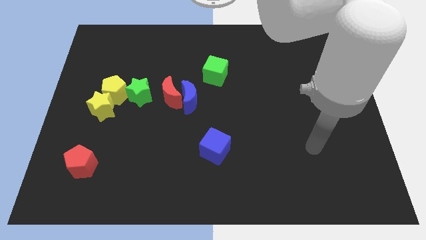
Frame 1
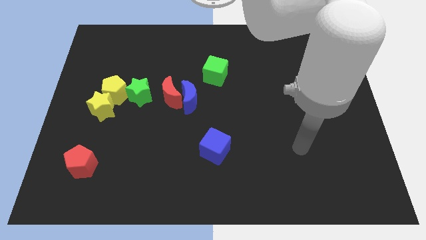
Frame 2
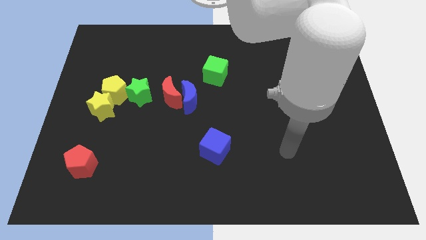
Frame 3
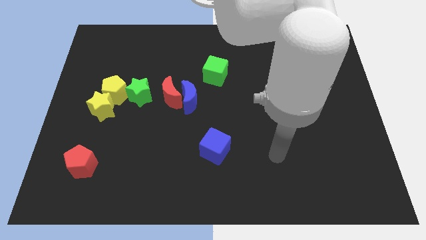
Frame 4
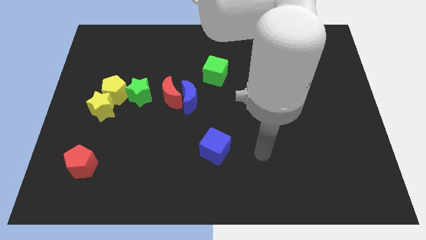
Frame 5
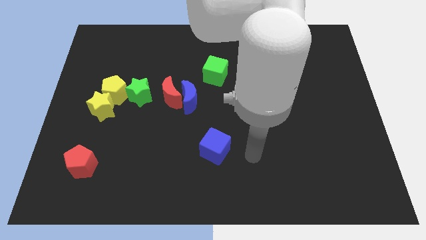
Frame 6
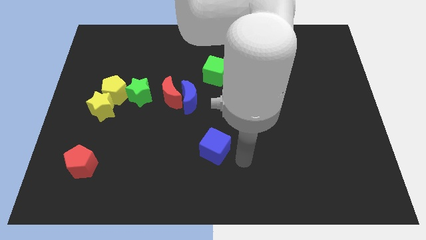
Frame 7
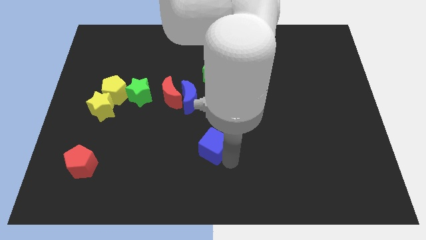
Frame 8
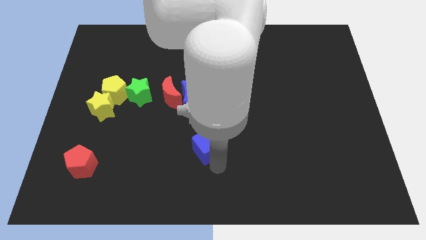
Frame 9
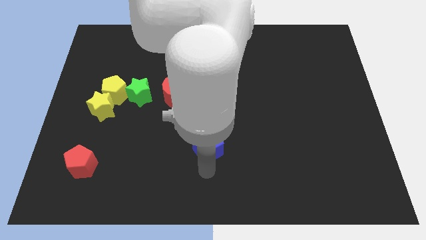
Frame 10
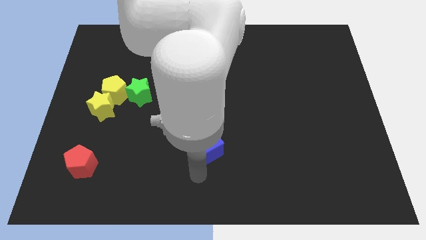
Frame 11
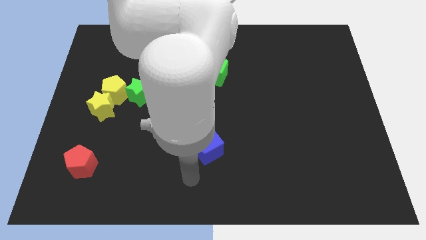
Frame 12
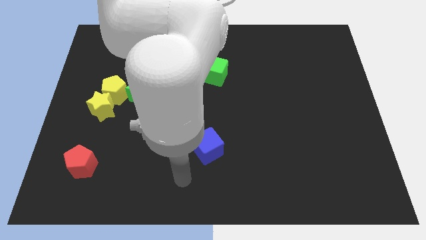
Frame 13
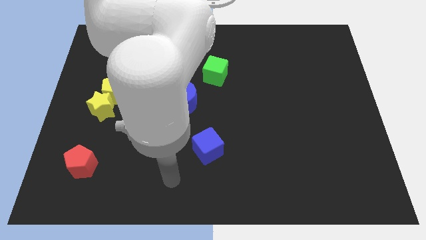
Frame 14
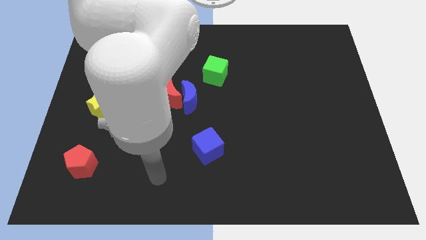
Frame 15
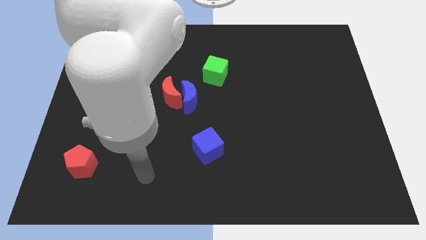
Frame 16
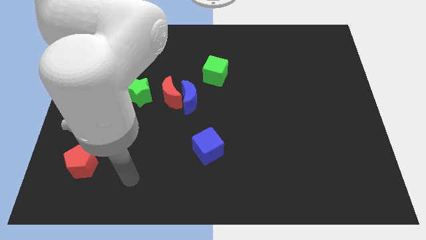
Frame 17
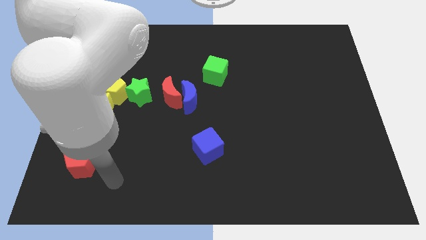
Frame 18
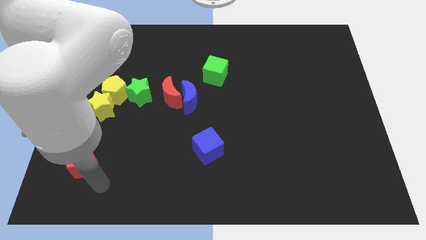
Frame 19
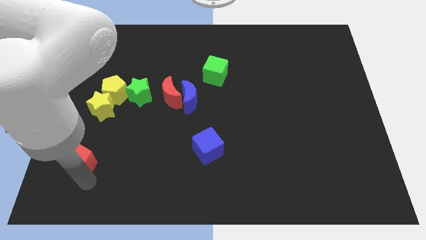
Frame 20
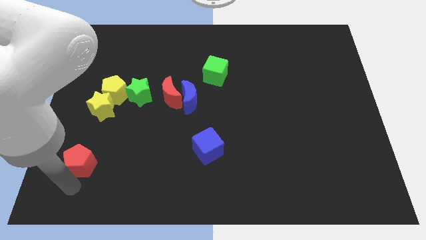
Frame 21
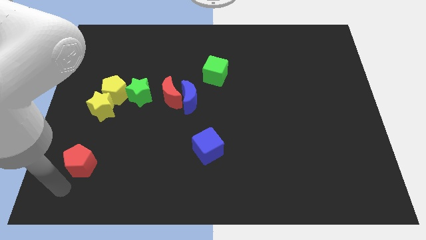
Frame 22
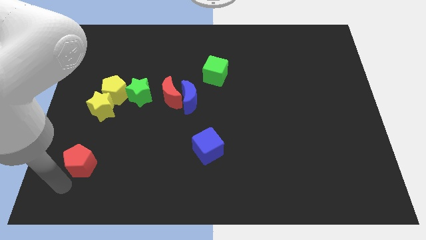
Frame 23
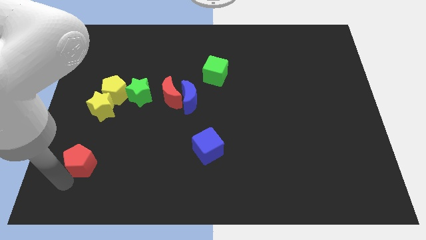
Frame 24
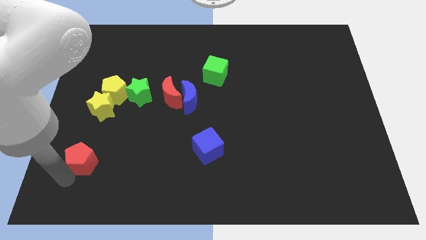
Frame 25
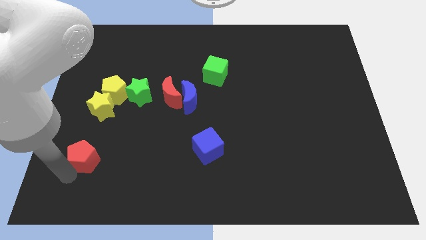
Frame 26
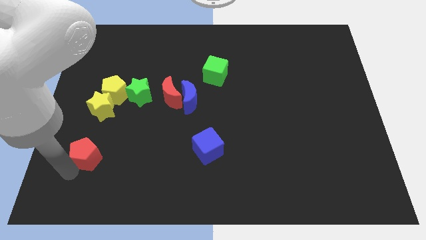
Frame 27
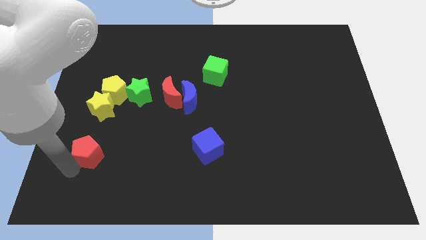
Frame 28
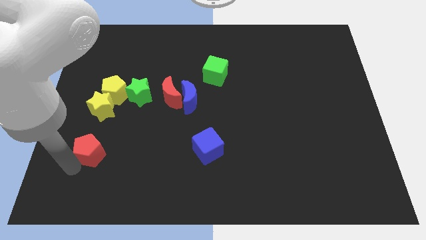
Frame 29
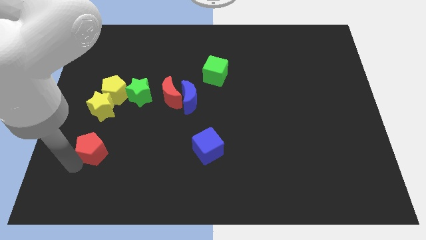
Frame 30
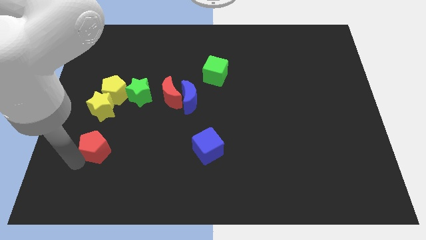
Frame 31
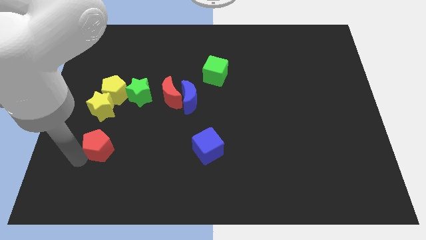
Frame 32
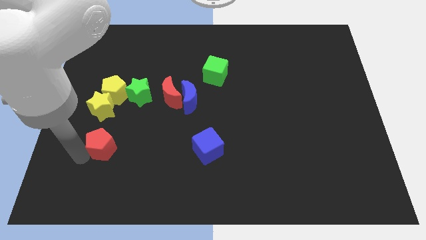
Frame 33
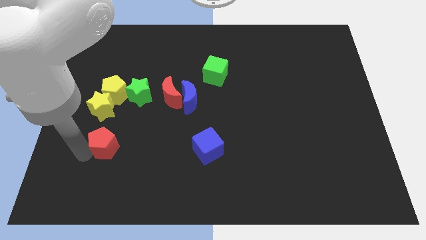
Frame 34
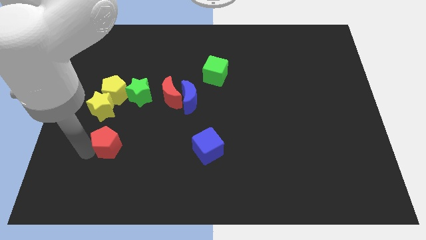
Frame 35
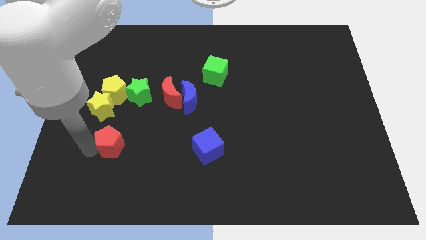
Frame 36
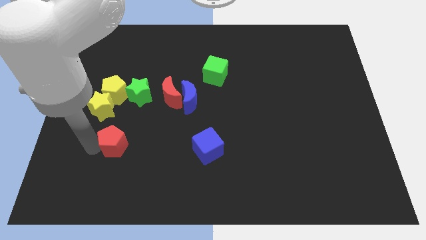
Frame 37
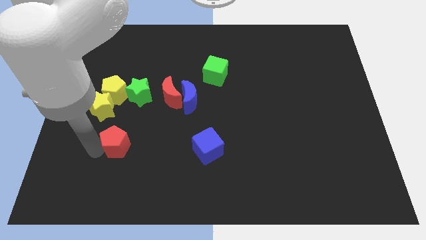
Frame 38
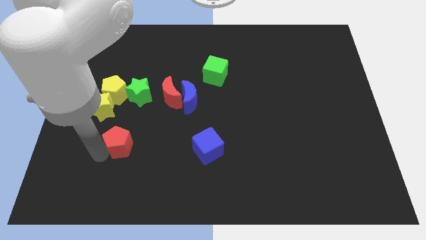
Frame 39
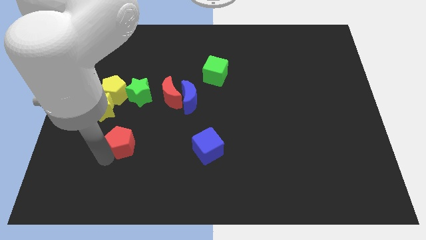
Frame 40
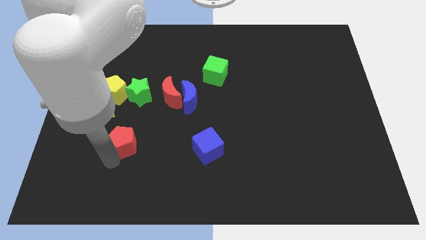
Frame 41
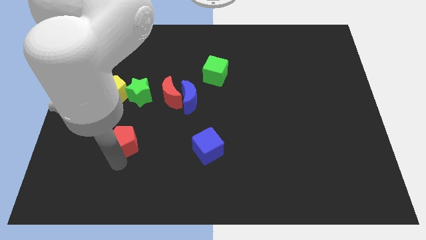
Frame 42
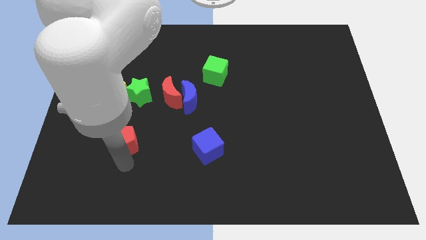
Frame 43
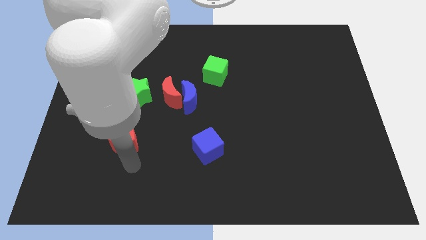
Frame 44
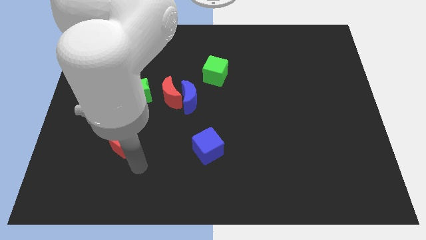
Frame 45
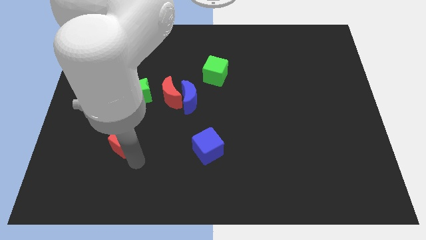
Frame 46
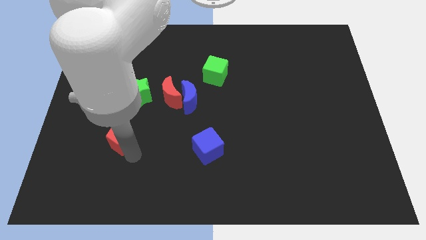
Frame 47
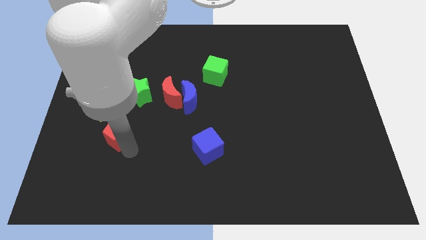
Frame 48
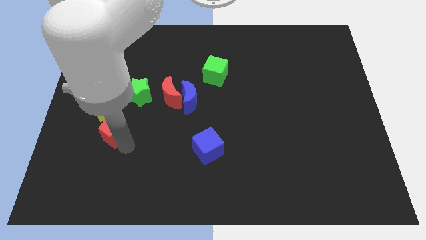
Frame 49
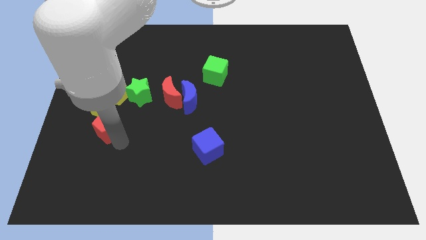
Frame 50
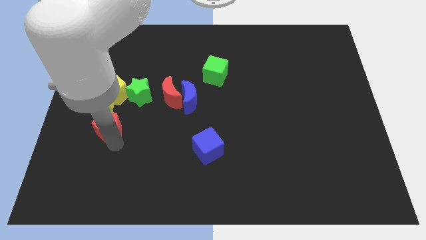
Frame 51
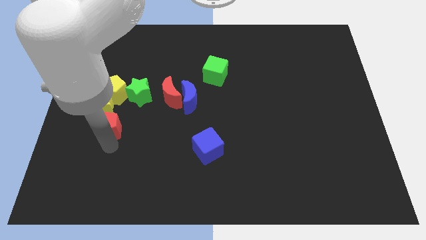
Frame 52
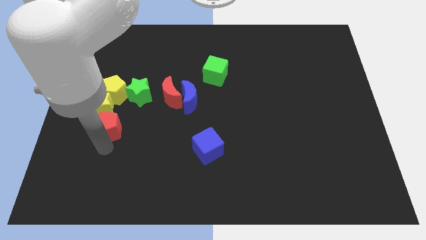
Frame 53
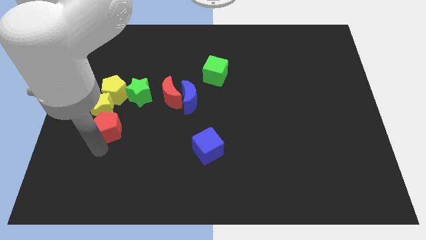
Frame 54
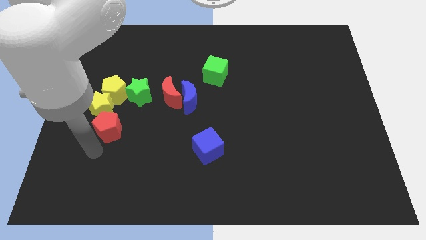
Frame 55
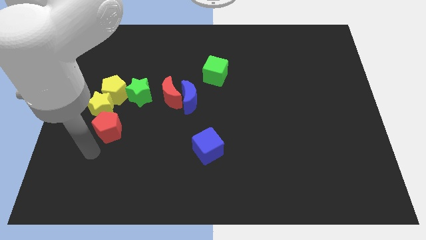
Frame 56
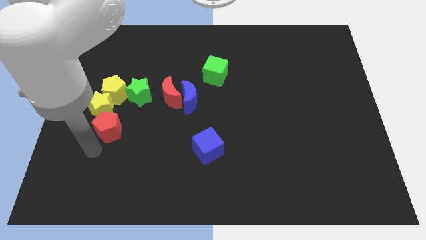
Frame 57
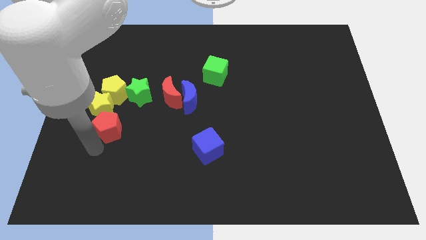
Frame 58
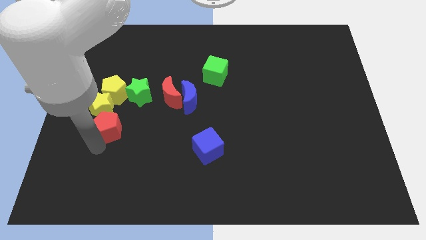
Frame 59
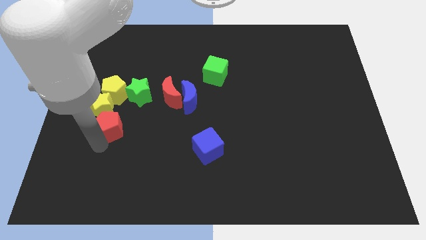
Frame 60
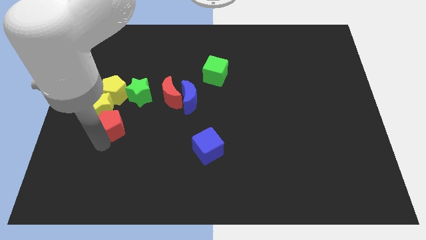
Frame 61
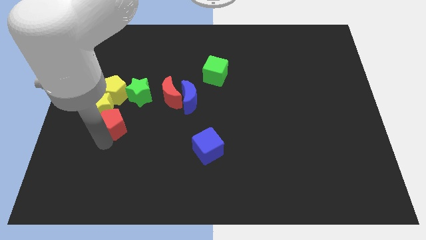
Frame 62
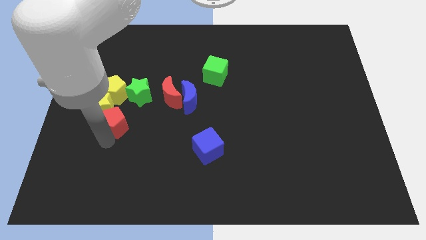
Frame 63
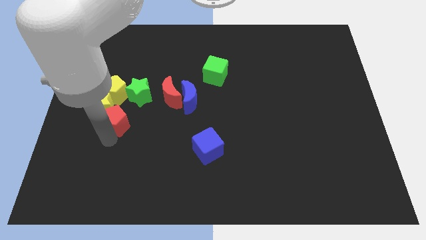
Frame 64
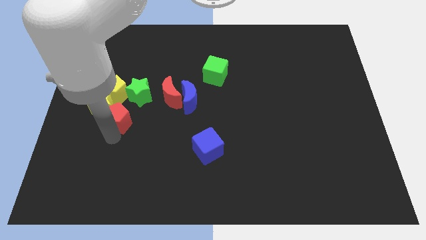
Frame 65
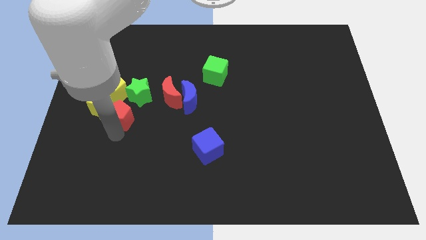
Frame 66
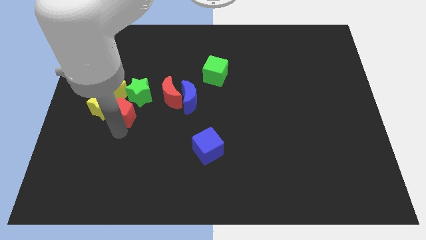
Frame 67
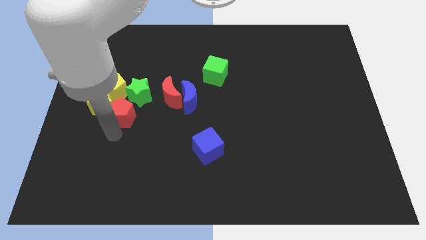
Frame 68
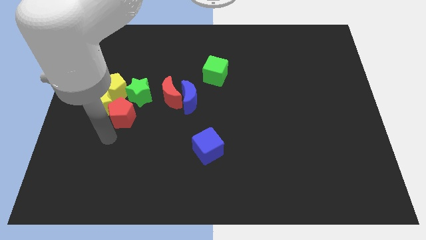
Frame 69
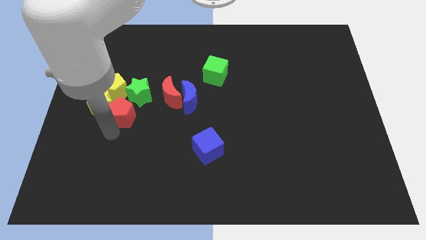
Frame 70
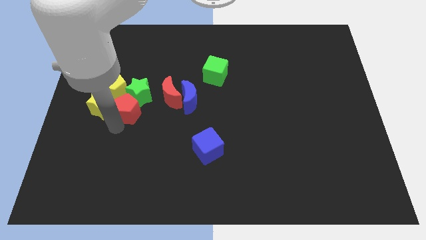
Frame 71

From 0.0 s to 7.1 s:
put the red pentagon towards the green star
